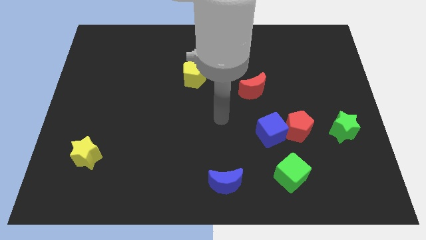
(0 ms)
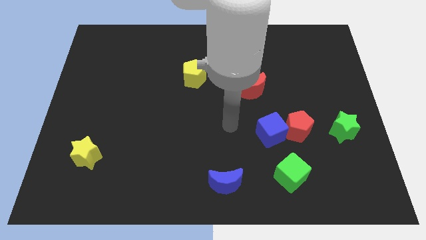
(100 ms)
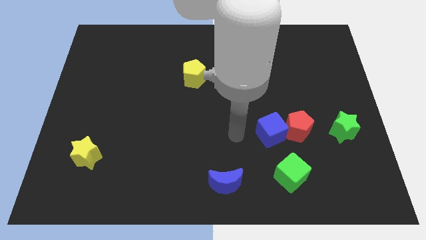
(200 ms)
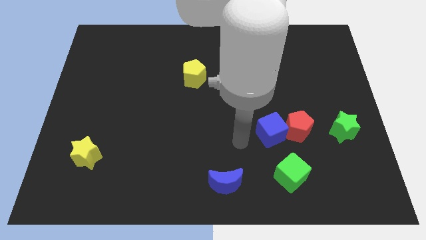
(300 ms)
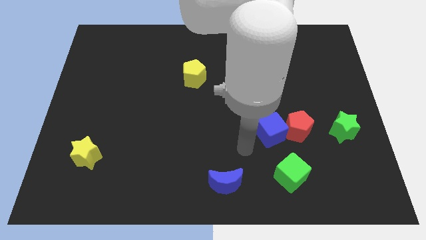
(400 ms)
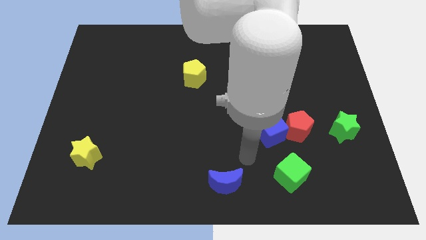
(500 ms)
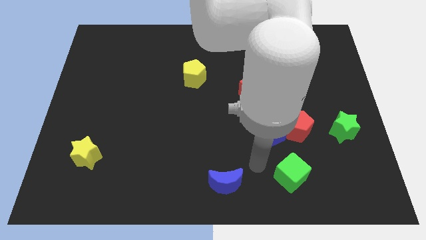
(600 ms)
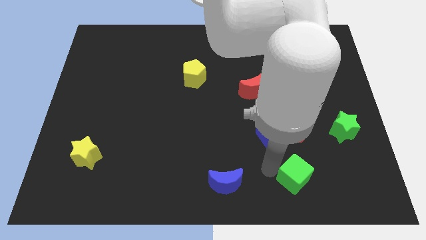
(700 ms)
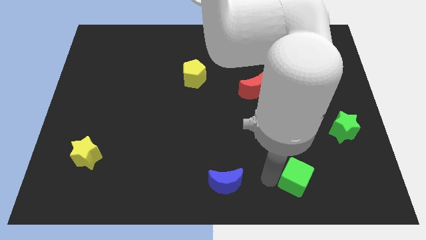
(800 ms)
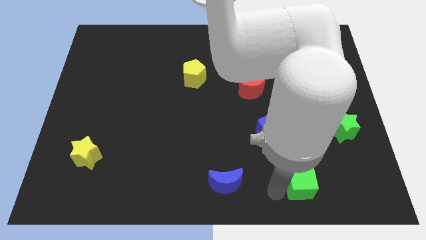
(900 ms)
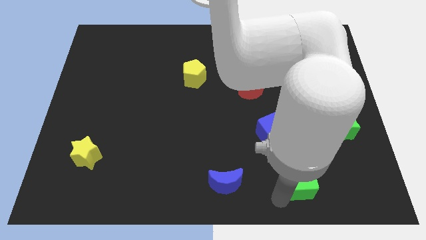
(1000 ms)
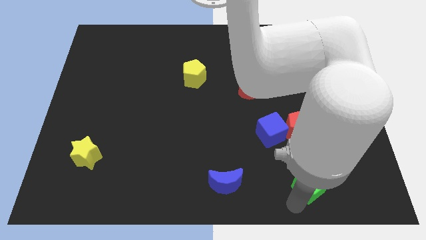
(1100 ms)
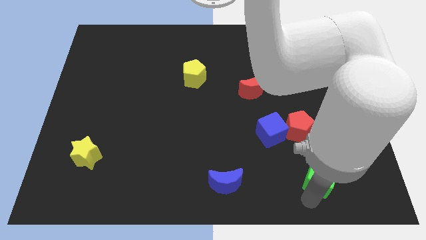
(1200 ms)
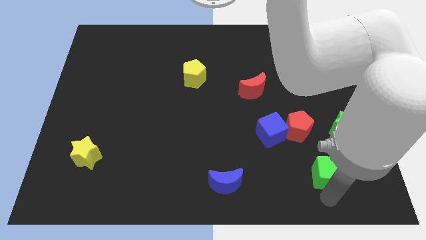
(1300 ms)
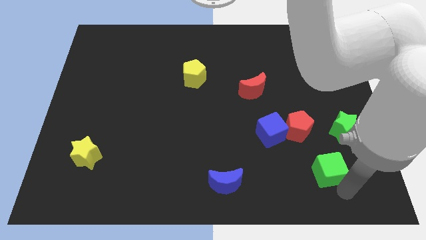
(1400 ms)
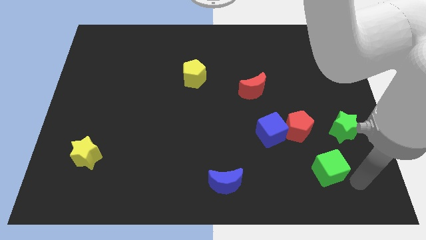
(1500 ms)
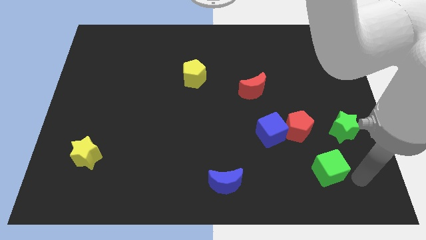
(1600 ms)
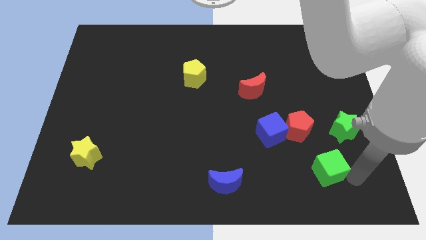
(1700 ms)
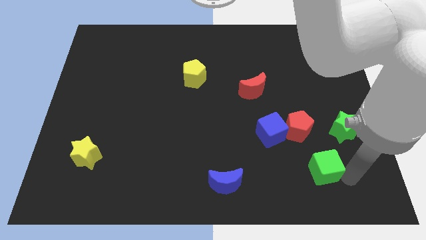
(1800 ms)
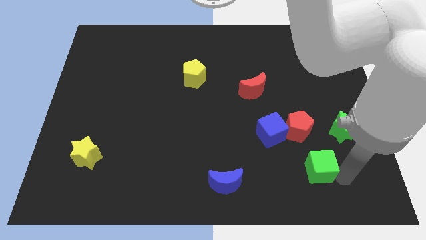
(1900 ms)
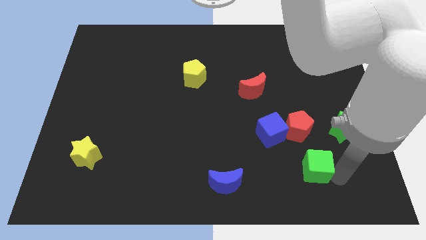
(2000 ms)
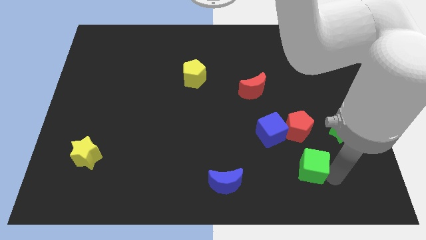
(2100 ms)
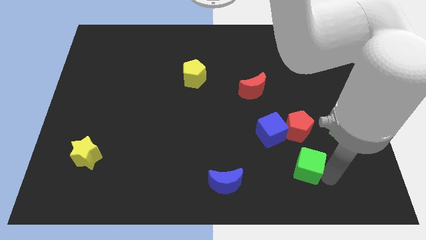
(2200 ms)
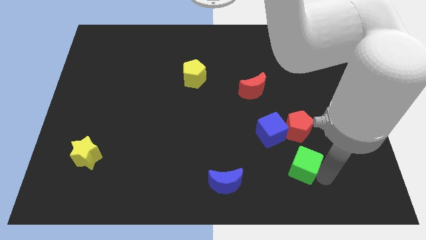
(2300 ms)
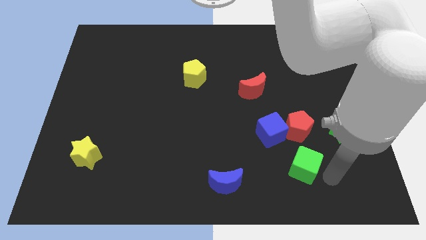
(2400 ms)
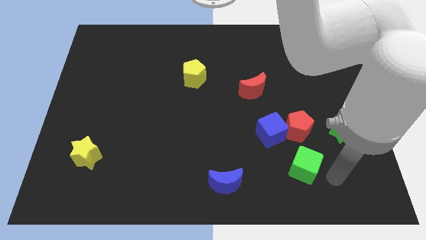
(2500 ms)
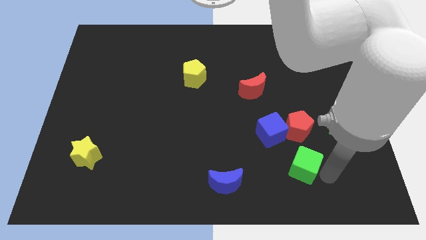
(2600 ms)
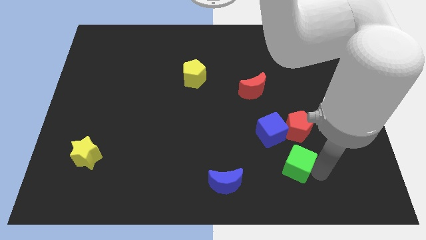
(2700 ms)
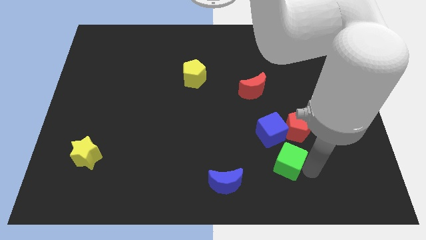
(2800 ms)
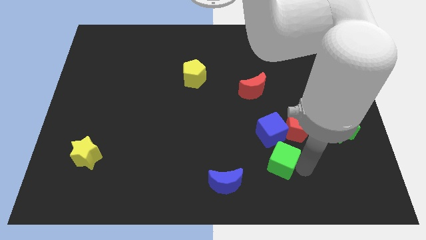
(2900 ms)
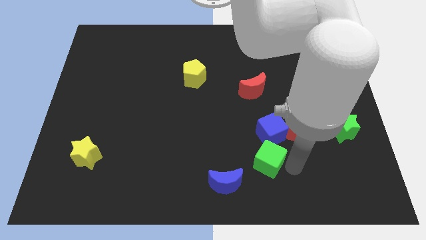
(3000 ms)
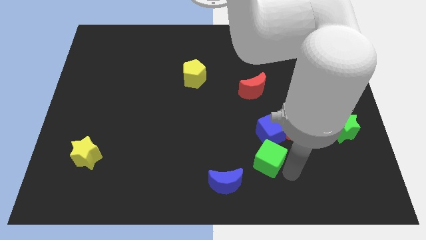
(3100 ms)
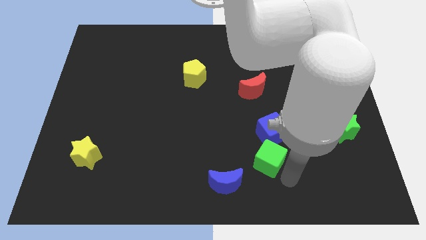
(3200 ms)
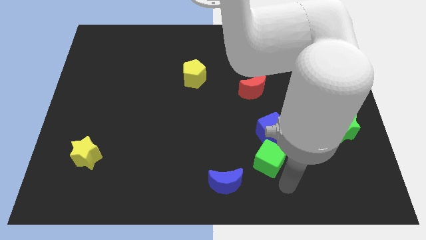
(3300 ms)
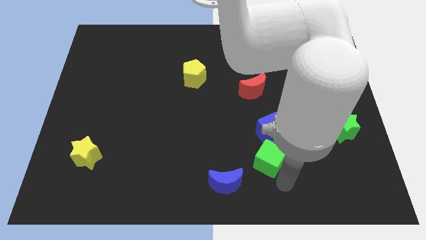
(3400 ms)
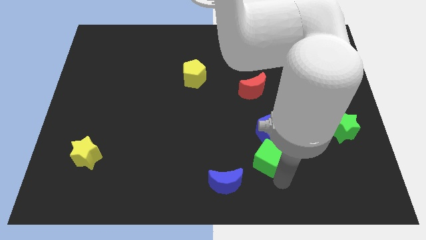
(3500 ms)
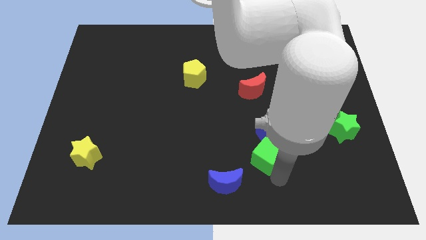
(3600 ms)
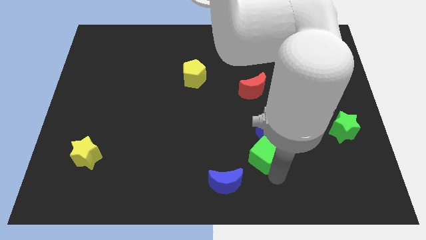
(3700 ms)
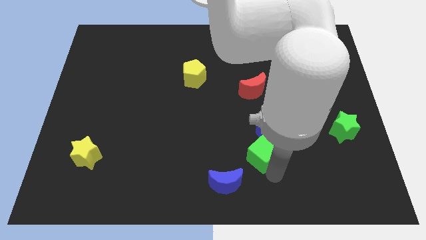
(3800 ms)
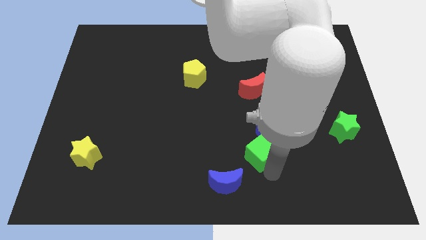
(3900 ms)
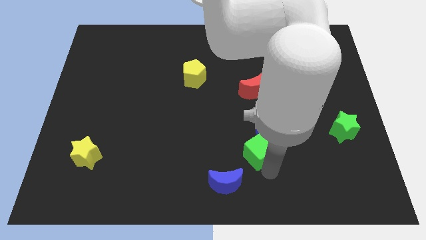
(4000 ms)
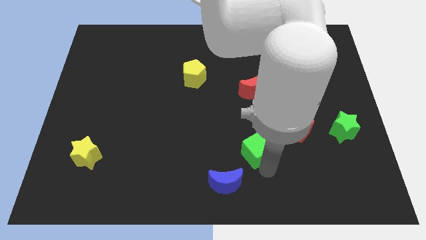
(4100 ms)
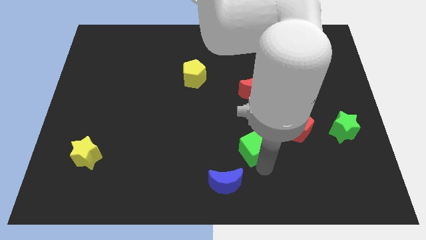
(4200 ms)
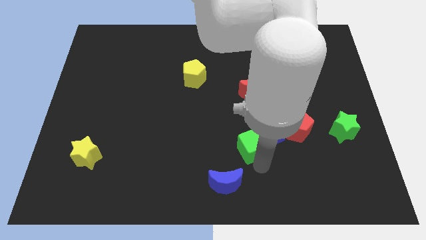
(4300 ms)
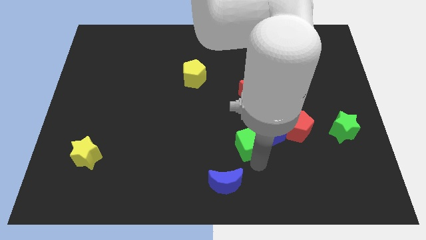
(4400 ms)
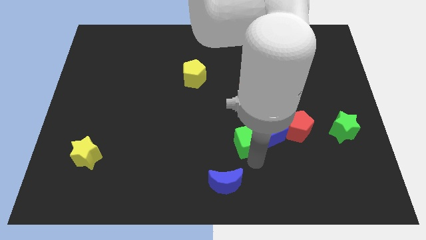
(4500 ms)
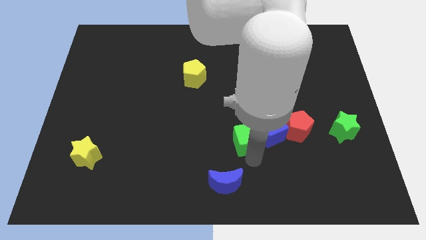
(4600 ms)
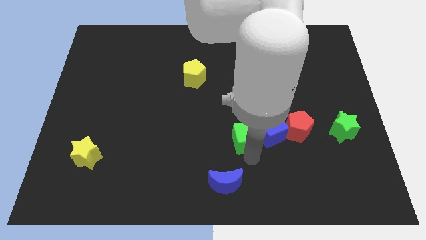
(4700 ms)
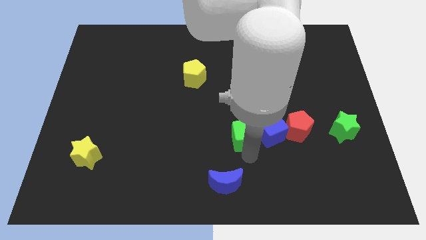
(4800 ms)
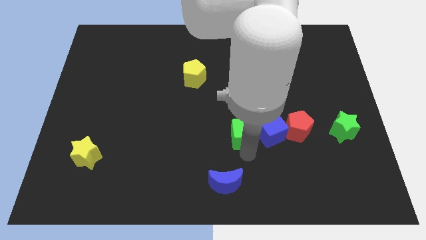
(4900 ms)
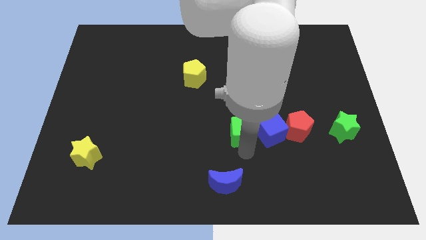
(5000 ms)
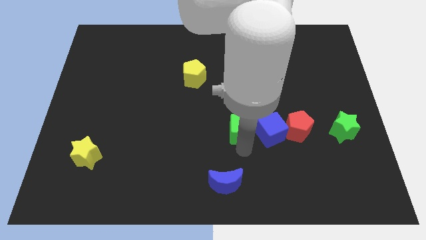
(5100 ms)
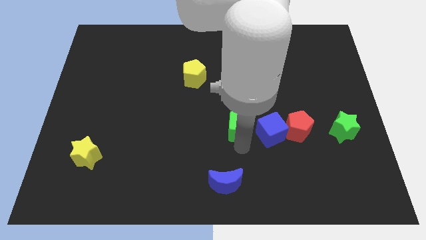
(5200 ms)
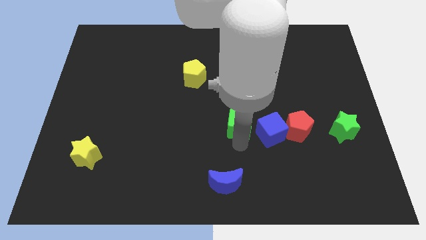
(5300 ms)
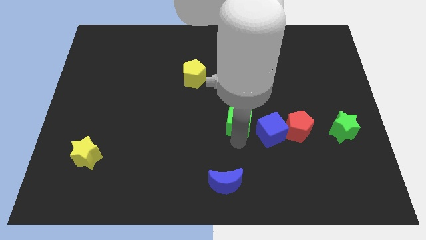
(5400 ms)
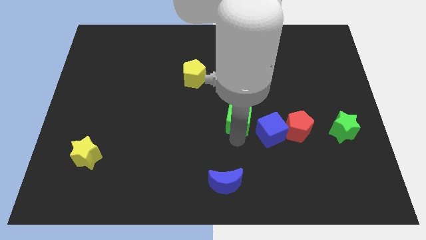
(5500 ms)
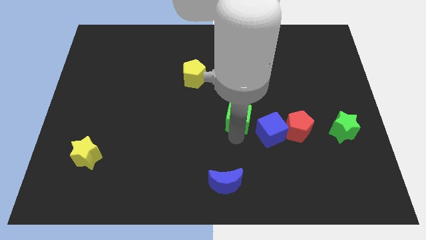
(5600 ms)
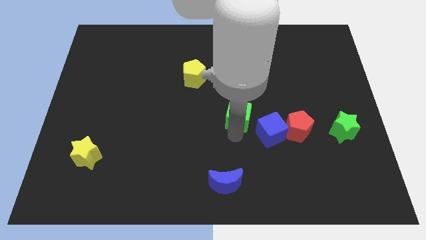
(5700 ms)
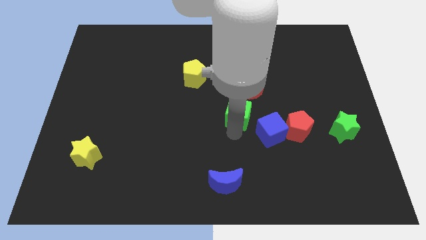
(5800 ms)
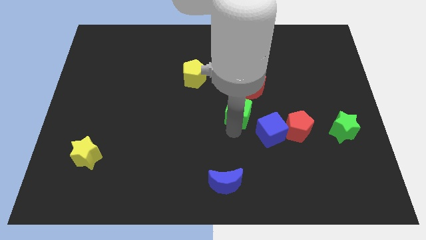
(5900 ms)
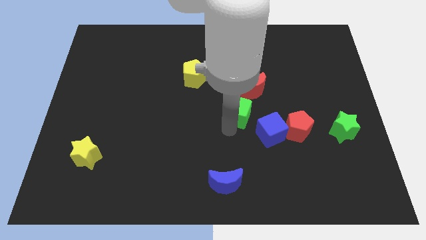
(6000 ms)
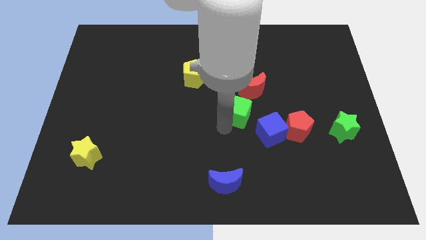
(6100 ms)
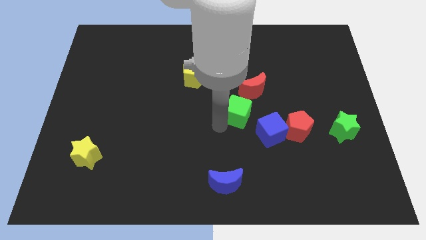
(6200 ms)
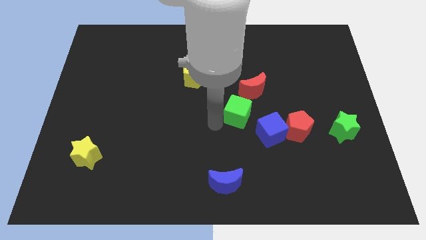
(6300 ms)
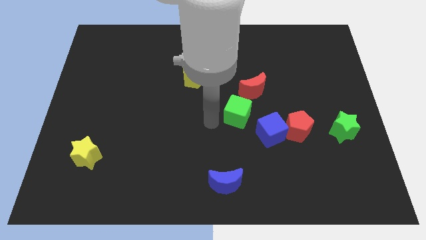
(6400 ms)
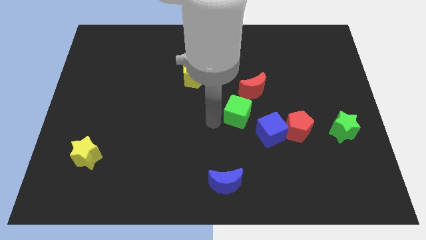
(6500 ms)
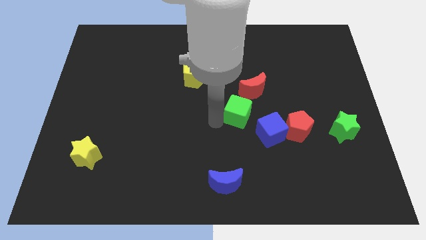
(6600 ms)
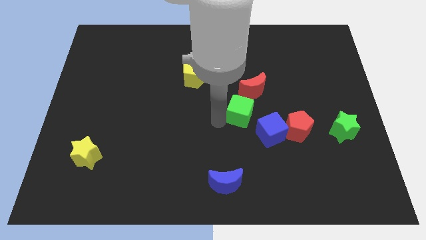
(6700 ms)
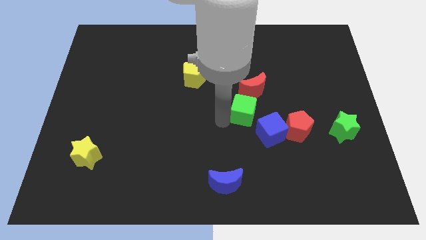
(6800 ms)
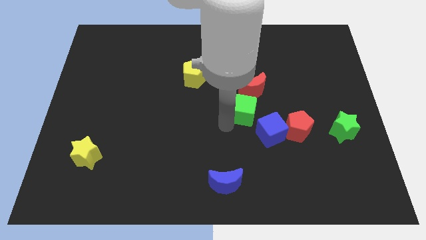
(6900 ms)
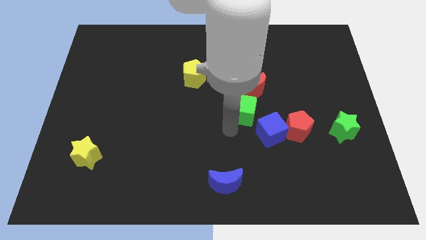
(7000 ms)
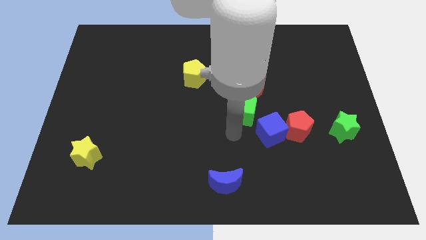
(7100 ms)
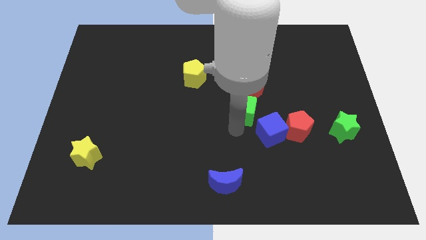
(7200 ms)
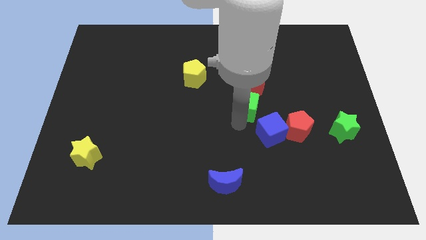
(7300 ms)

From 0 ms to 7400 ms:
push the green cube next to the red moon
